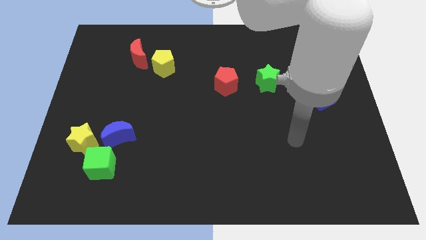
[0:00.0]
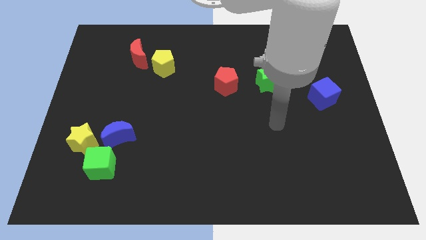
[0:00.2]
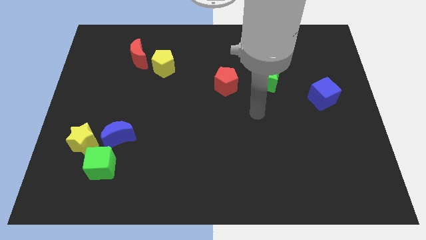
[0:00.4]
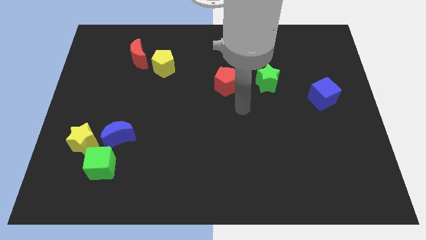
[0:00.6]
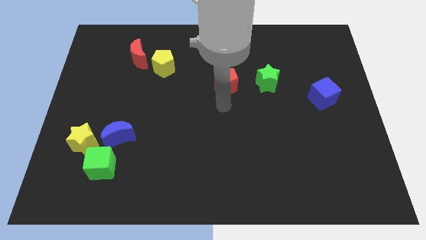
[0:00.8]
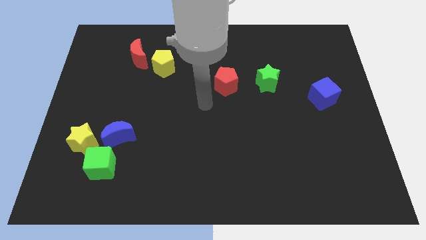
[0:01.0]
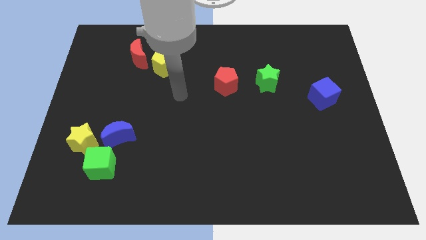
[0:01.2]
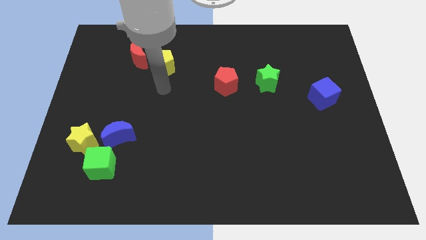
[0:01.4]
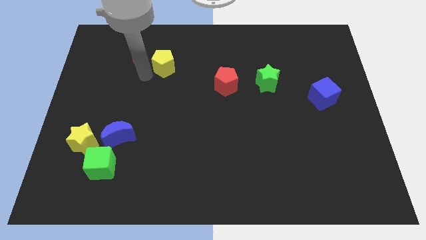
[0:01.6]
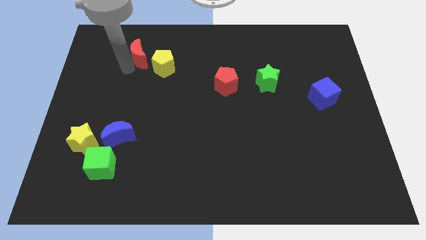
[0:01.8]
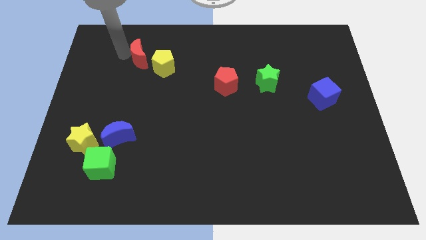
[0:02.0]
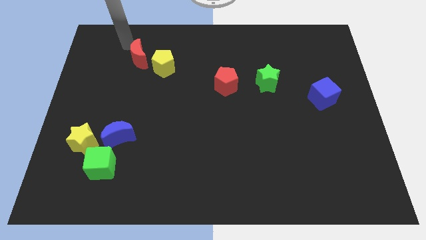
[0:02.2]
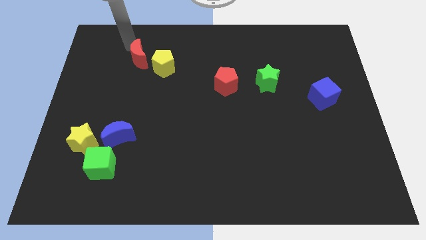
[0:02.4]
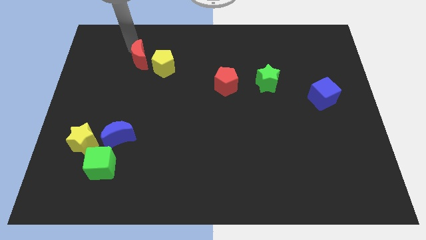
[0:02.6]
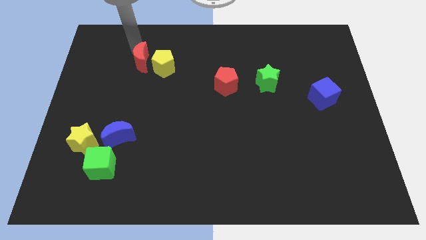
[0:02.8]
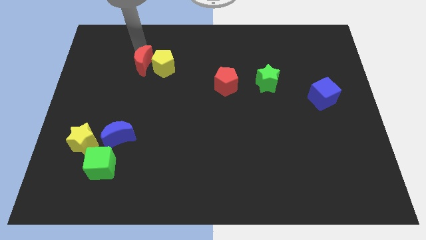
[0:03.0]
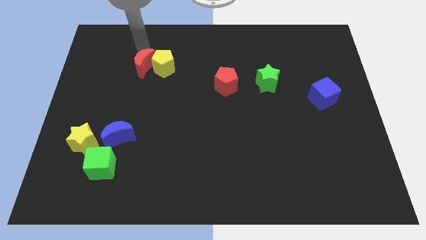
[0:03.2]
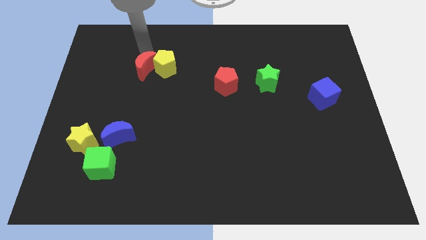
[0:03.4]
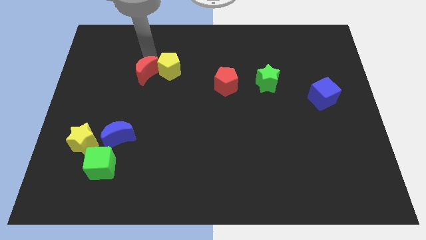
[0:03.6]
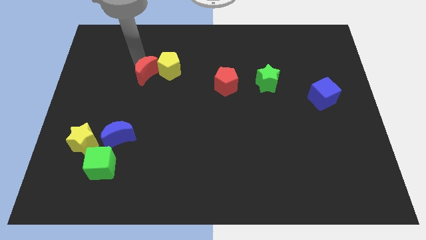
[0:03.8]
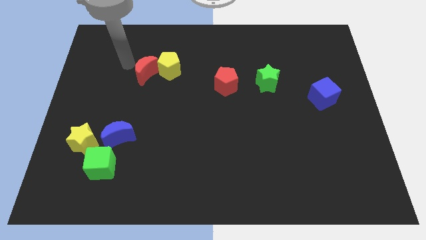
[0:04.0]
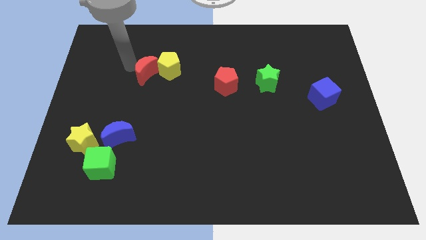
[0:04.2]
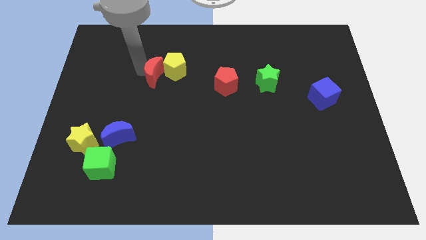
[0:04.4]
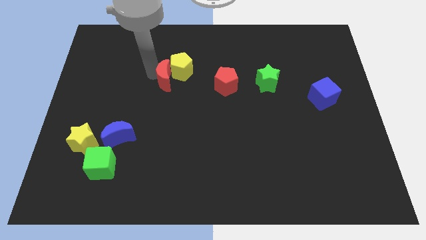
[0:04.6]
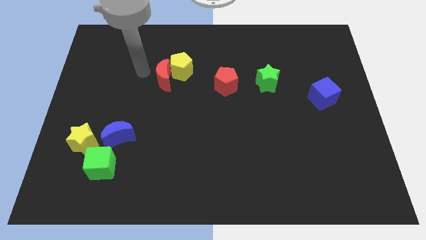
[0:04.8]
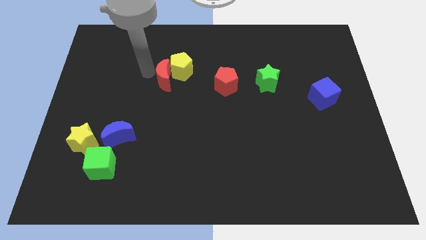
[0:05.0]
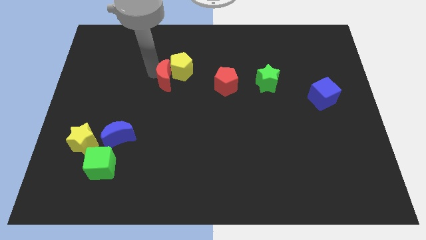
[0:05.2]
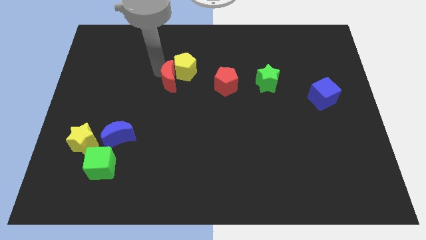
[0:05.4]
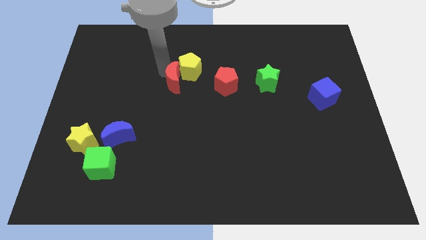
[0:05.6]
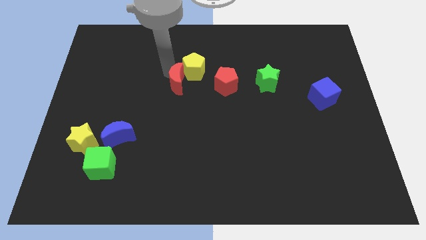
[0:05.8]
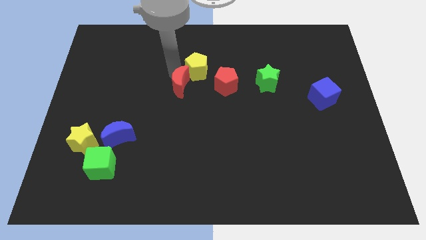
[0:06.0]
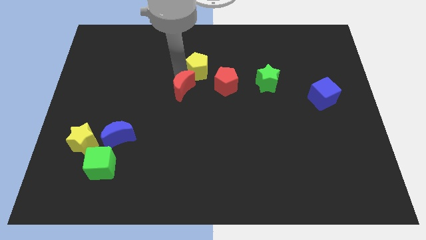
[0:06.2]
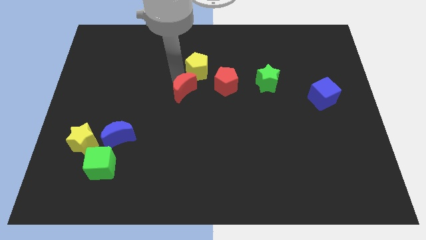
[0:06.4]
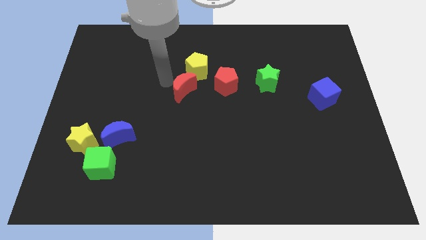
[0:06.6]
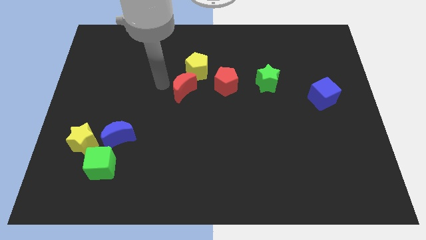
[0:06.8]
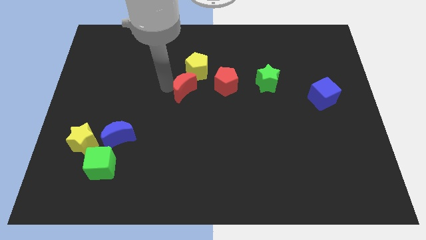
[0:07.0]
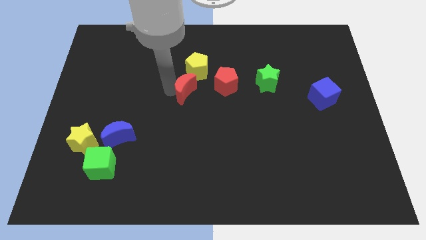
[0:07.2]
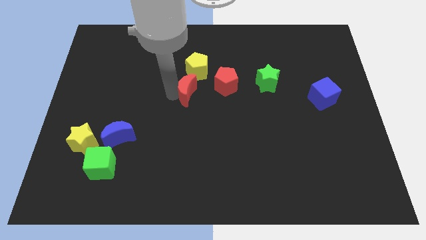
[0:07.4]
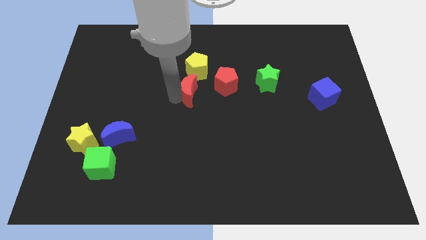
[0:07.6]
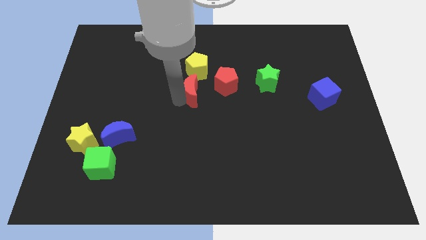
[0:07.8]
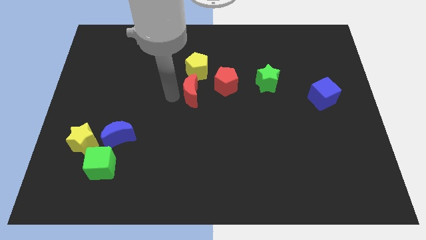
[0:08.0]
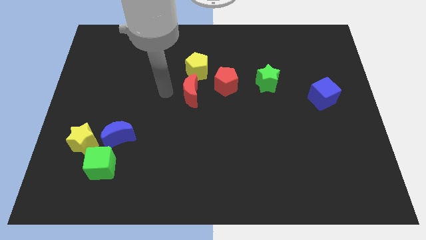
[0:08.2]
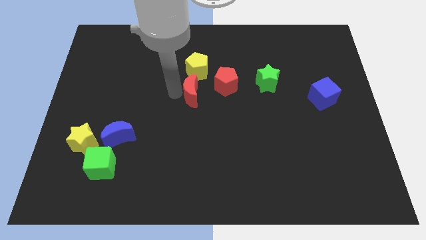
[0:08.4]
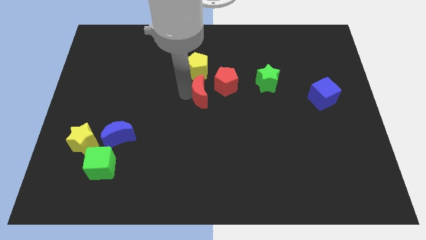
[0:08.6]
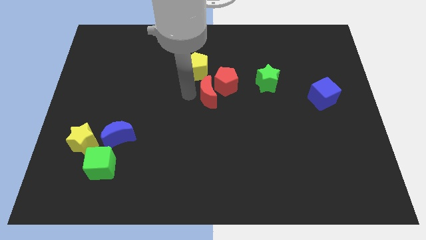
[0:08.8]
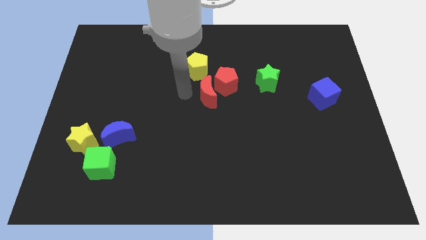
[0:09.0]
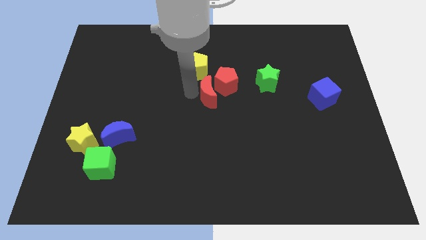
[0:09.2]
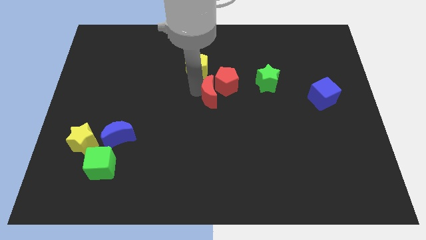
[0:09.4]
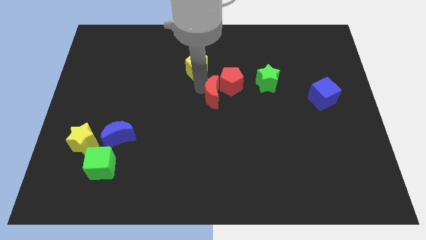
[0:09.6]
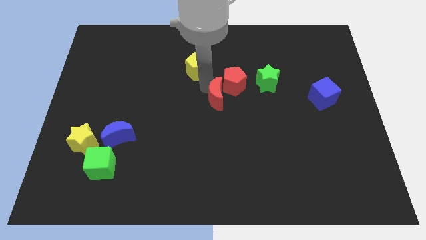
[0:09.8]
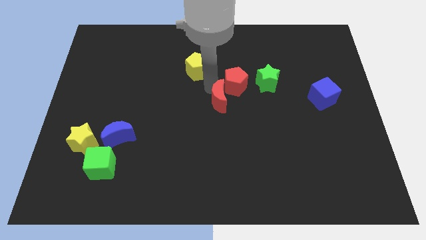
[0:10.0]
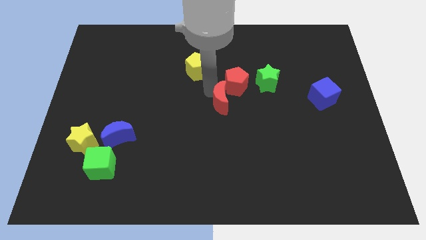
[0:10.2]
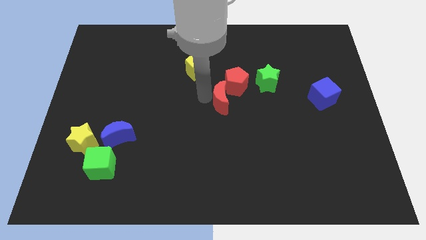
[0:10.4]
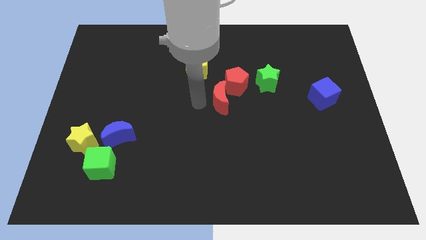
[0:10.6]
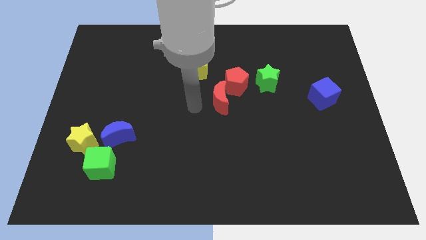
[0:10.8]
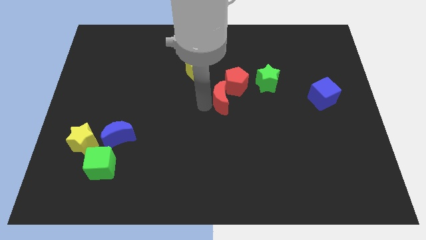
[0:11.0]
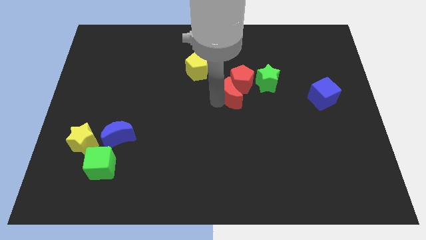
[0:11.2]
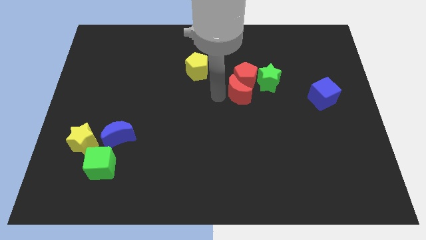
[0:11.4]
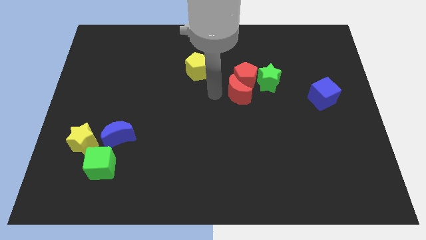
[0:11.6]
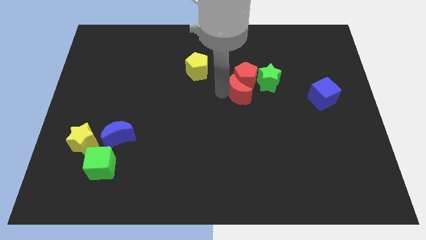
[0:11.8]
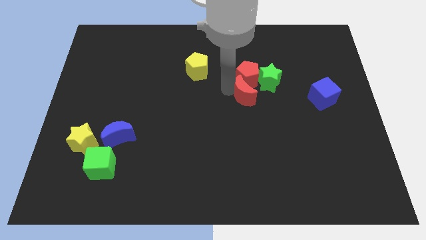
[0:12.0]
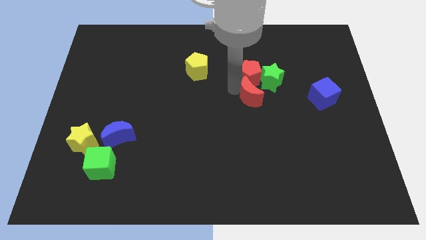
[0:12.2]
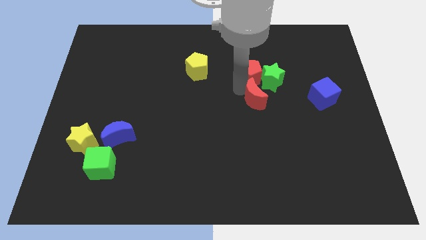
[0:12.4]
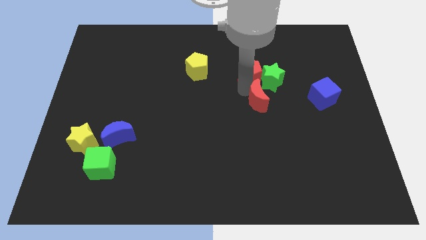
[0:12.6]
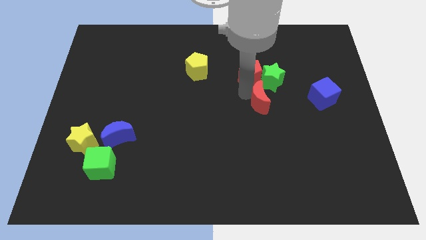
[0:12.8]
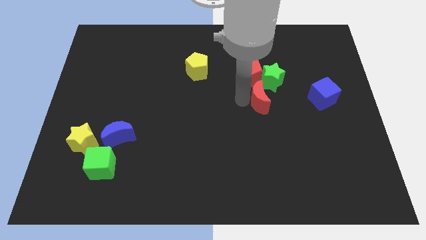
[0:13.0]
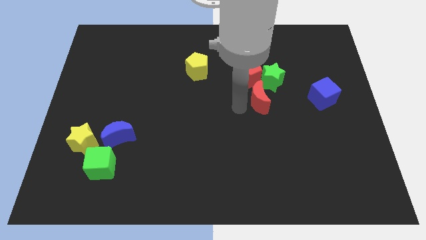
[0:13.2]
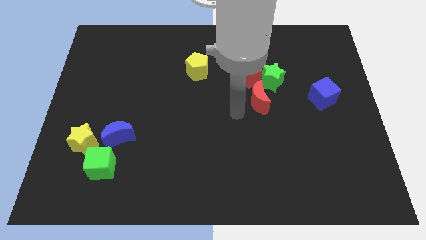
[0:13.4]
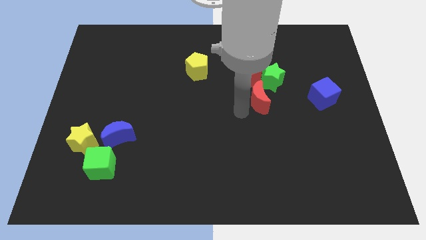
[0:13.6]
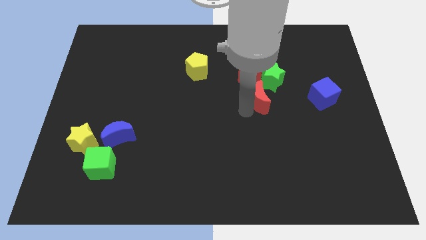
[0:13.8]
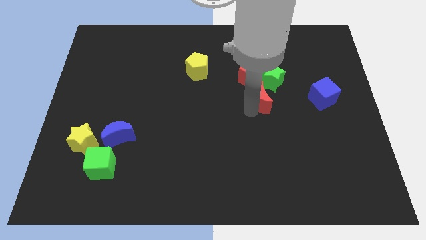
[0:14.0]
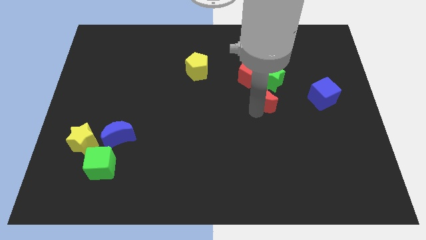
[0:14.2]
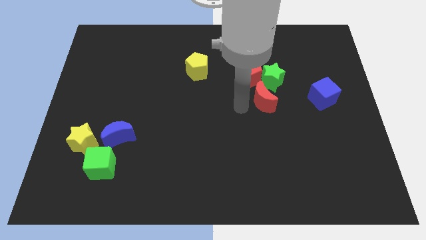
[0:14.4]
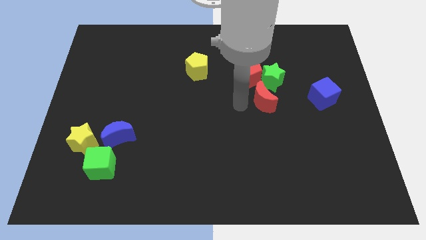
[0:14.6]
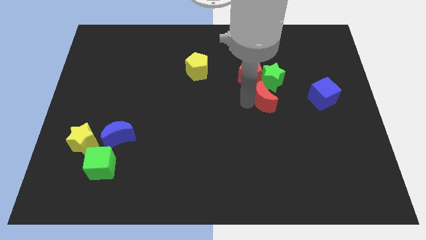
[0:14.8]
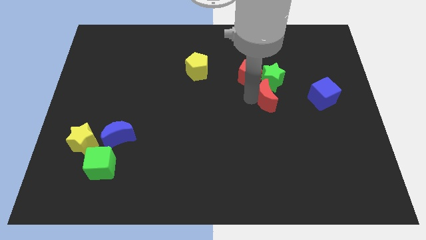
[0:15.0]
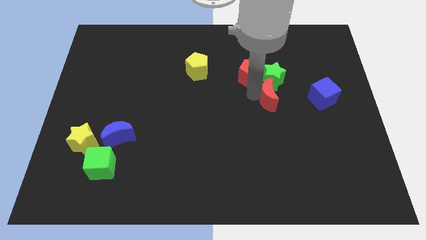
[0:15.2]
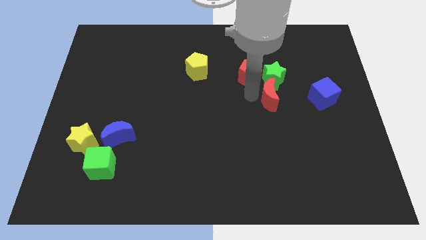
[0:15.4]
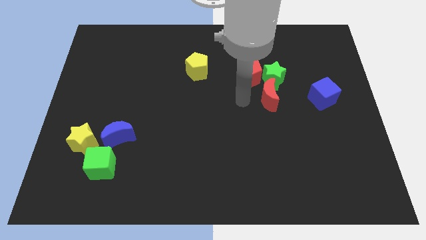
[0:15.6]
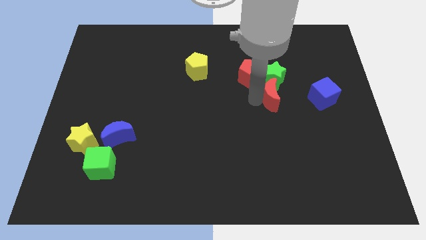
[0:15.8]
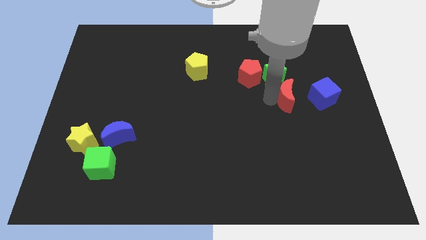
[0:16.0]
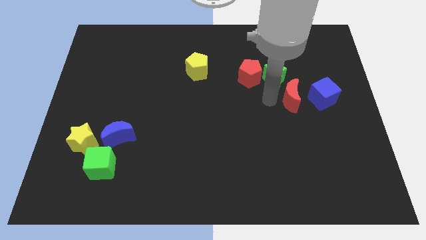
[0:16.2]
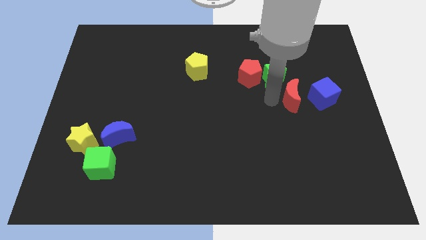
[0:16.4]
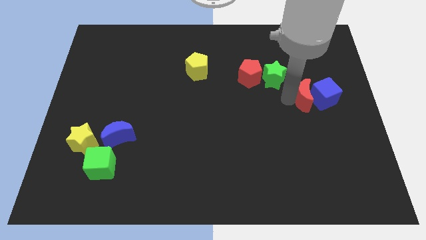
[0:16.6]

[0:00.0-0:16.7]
move the red moon next to the blue cube
